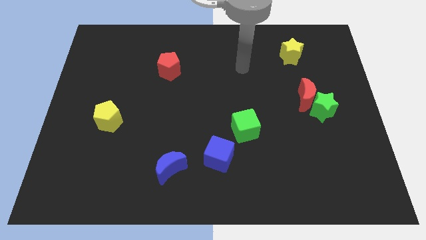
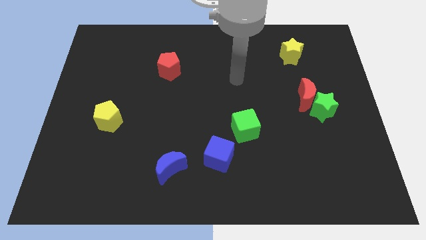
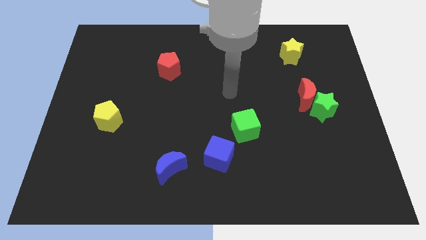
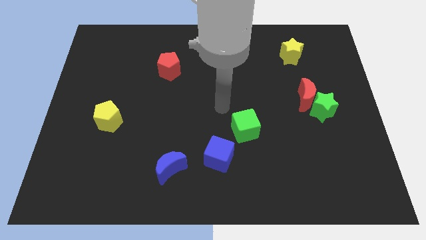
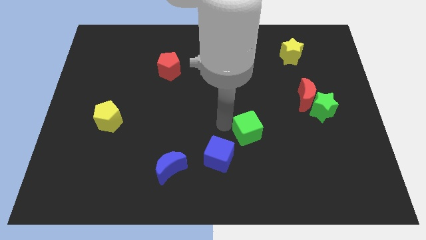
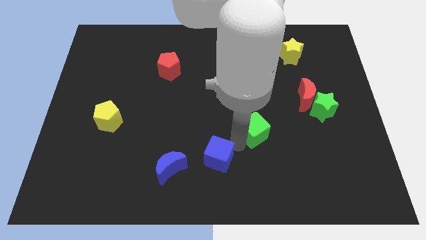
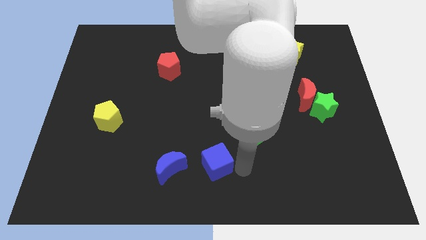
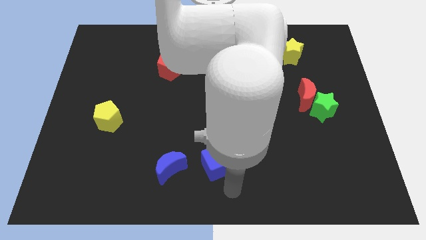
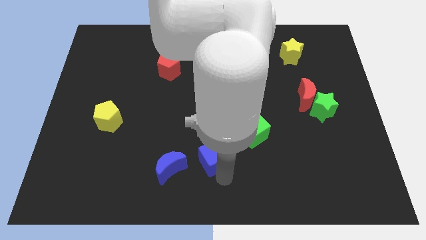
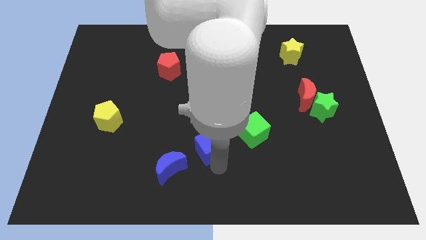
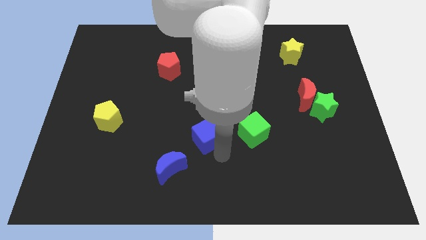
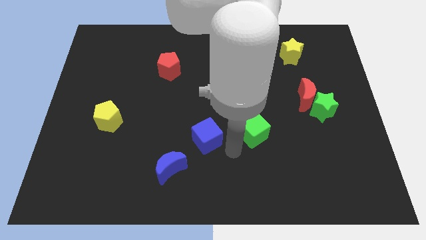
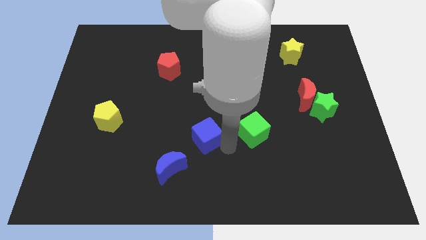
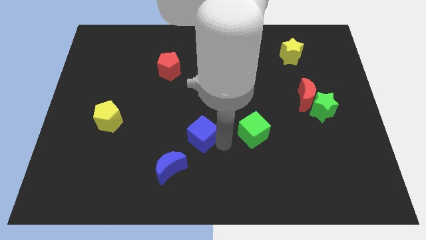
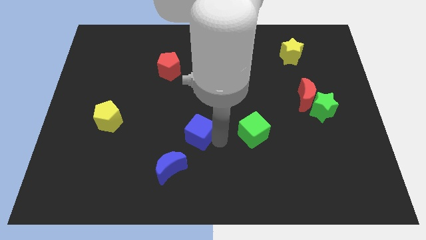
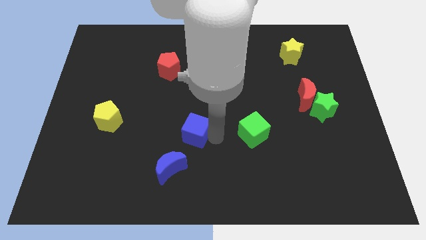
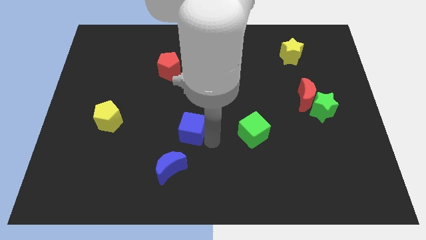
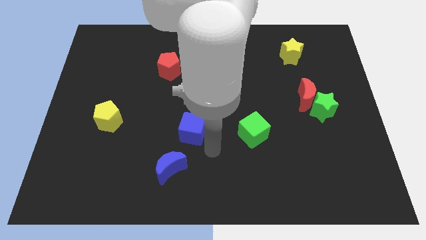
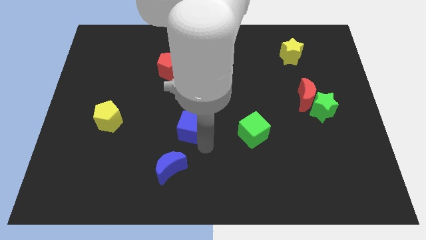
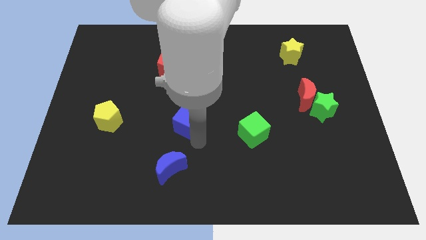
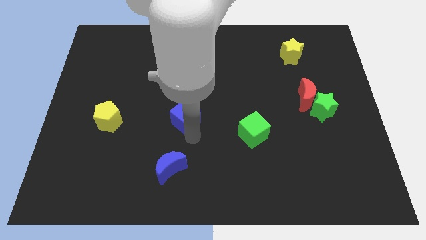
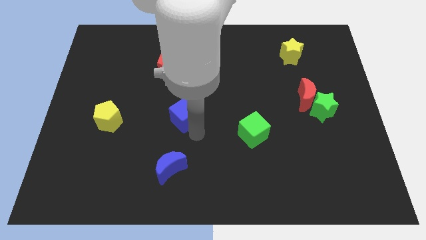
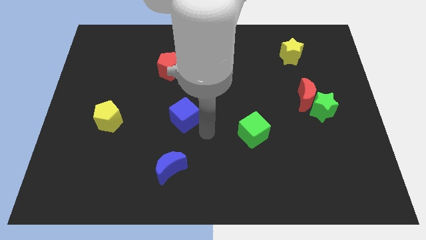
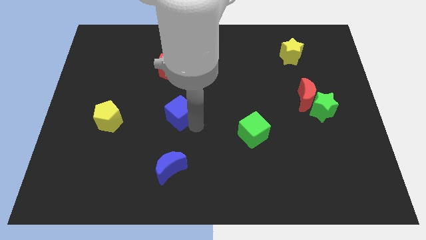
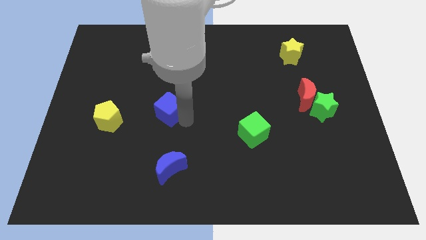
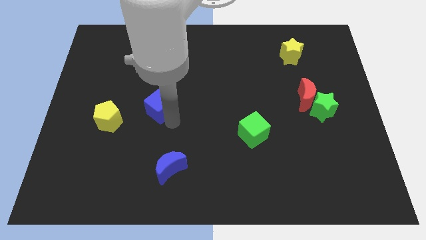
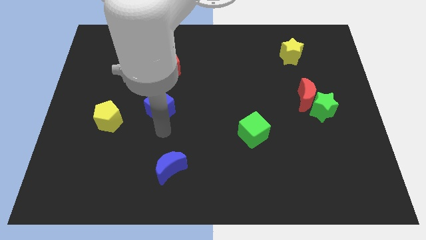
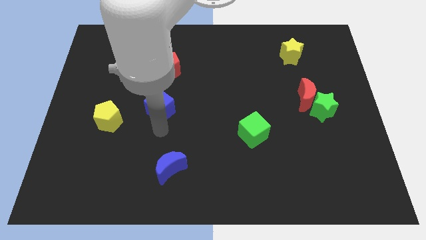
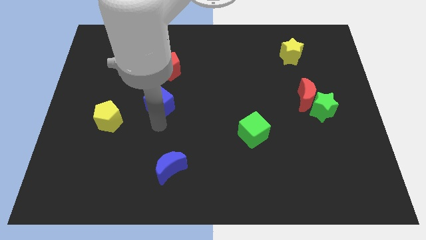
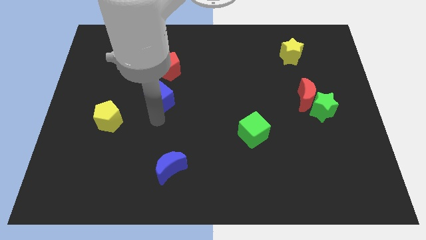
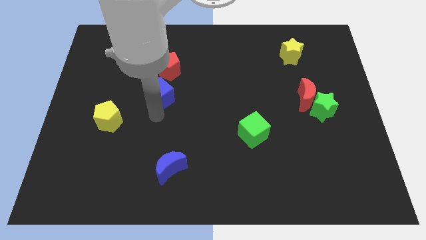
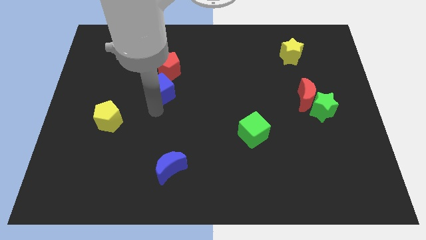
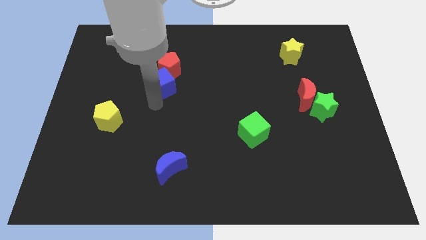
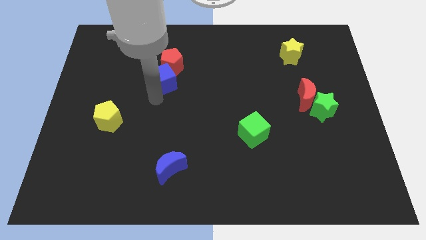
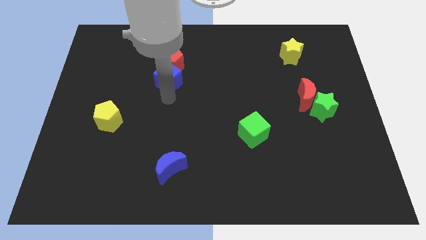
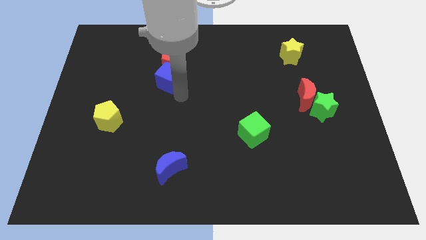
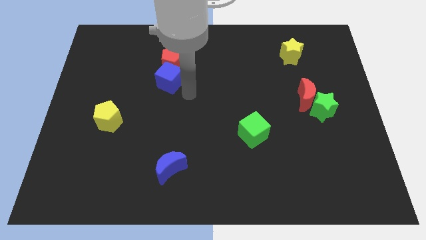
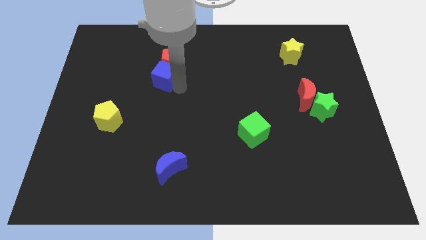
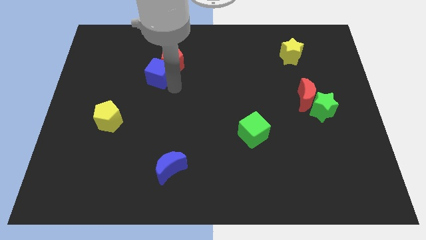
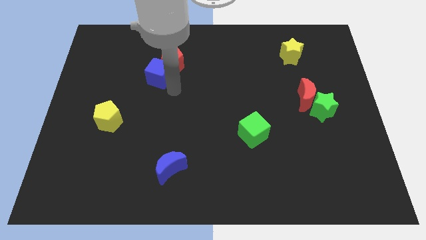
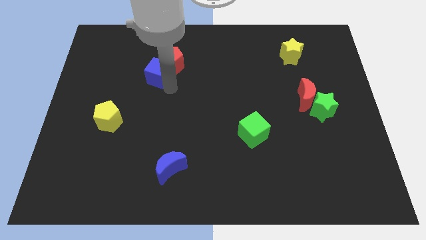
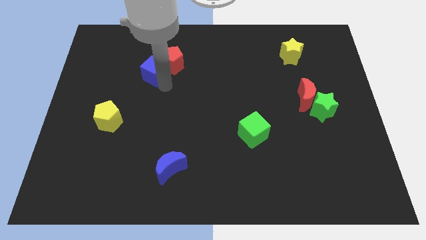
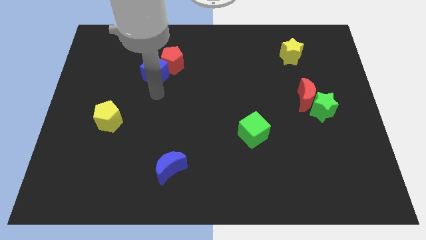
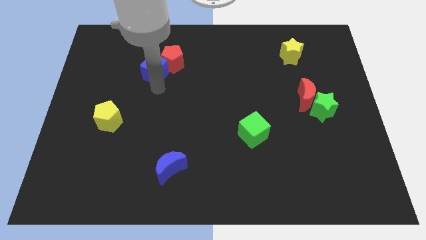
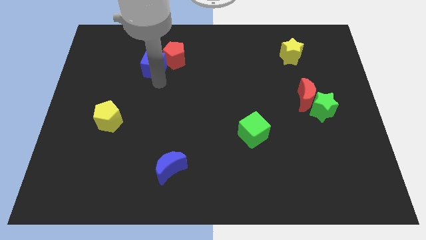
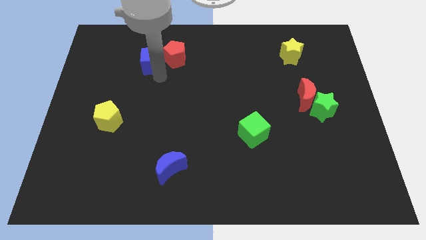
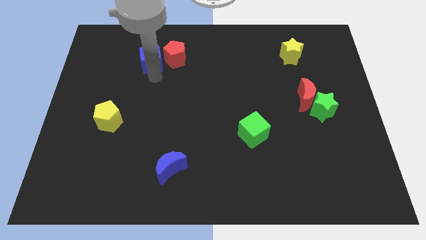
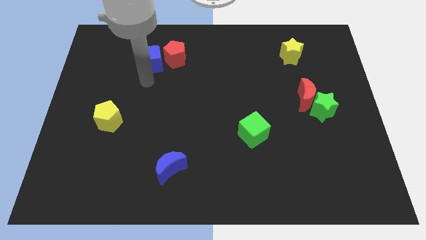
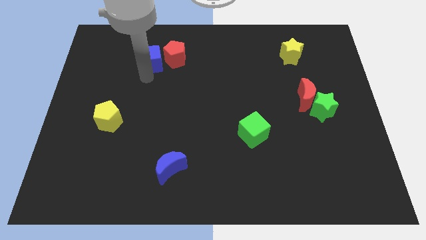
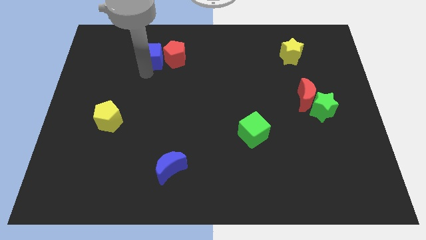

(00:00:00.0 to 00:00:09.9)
push the blue cube diagonally up and to the left of the red pentagon

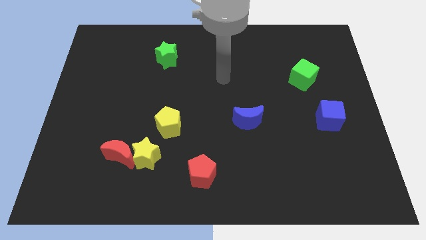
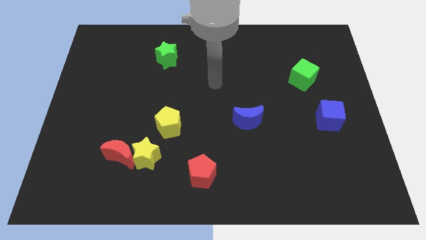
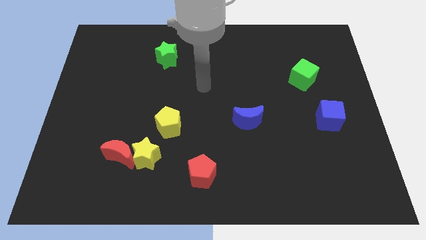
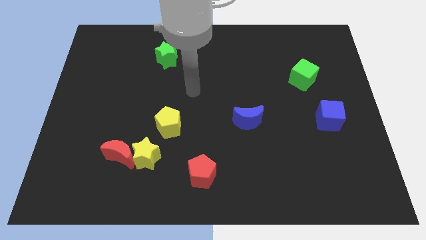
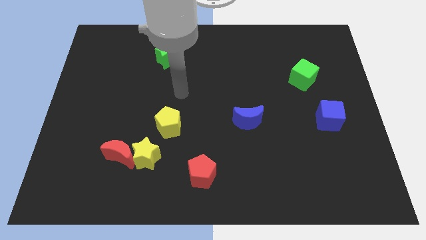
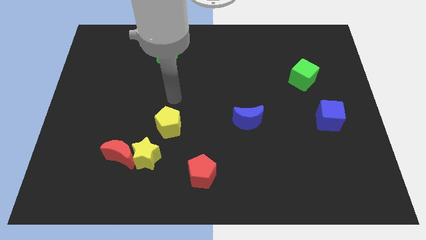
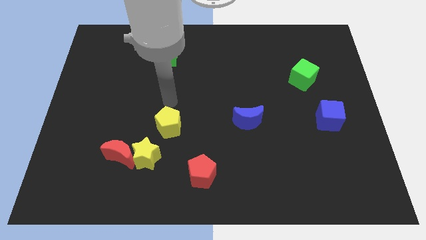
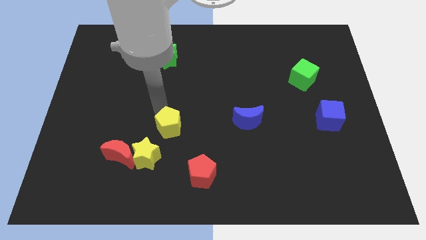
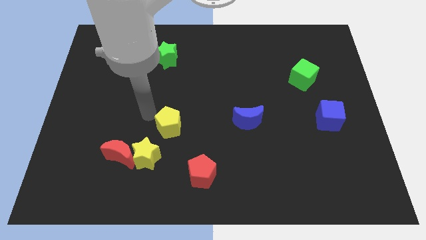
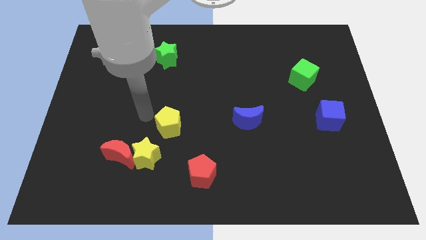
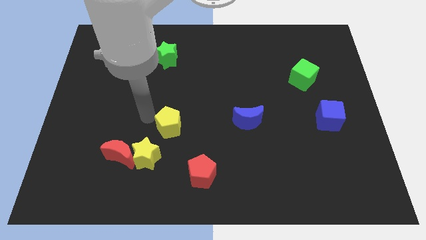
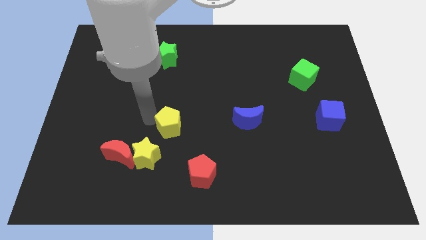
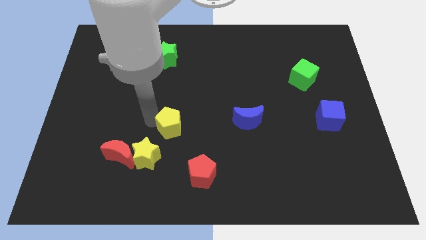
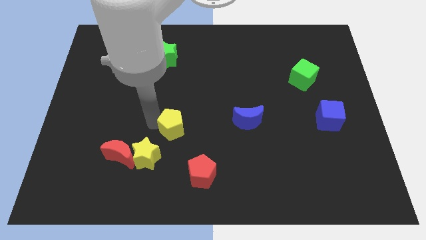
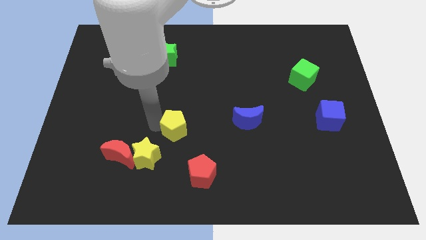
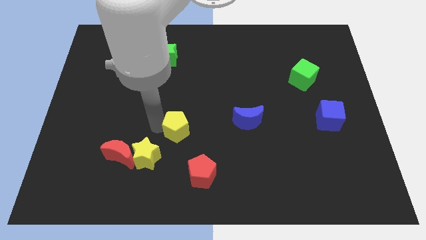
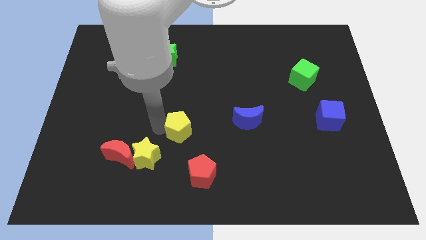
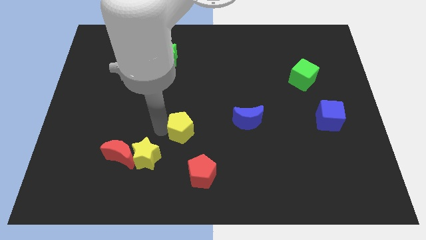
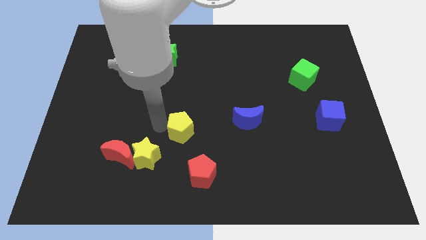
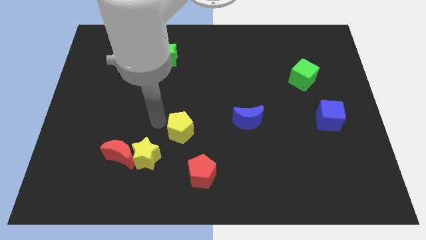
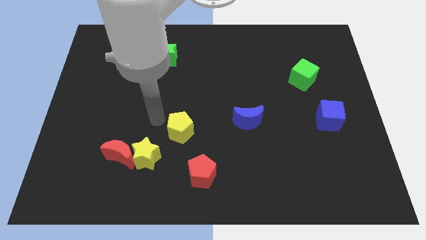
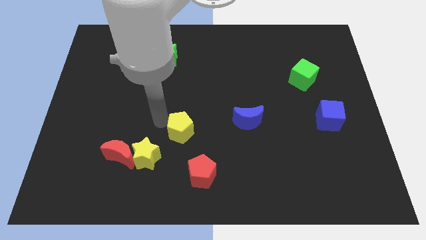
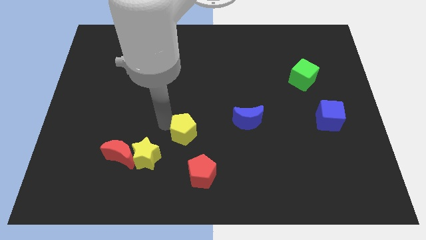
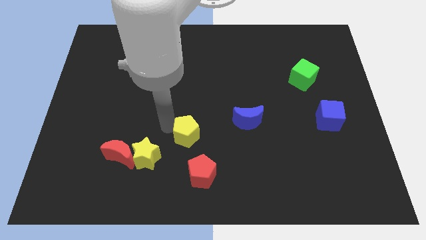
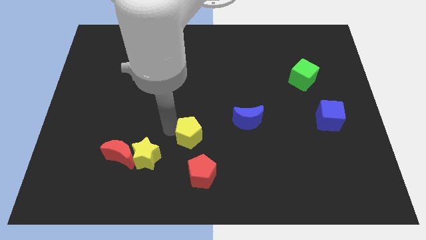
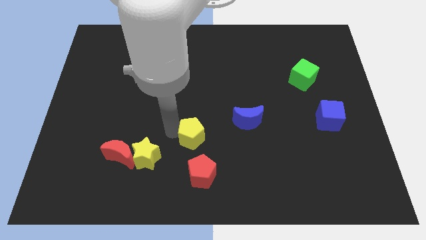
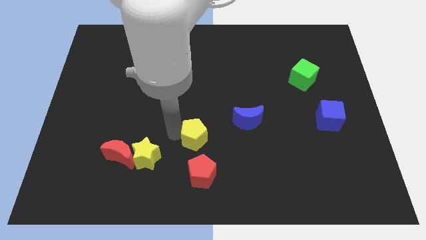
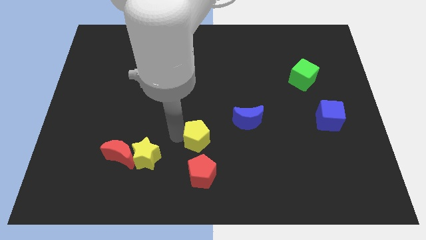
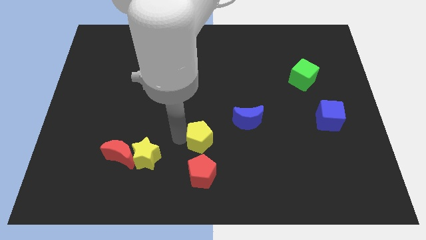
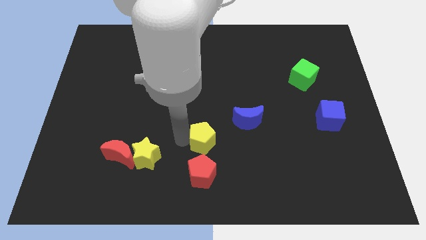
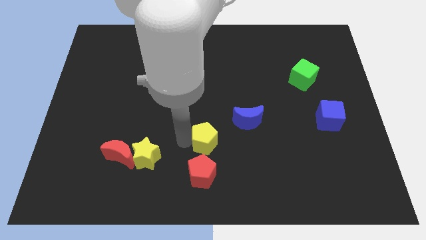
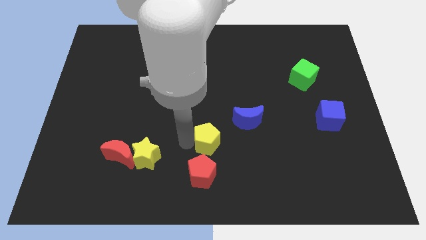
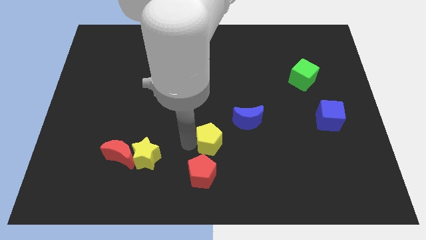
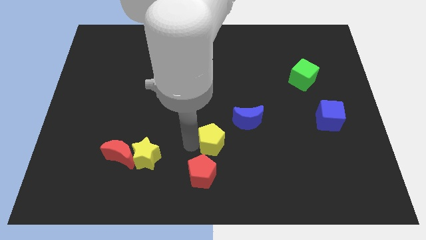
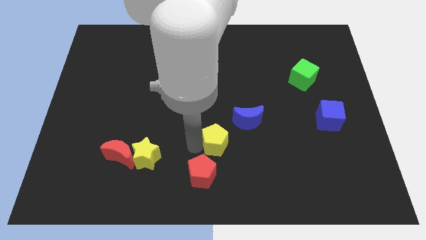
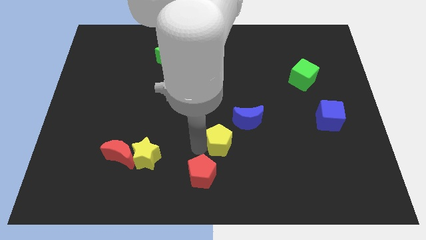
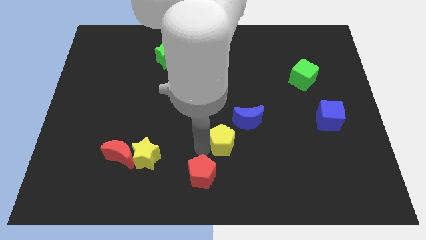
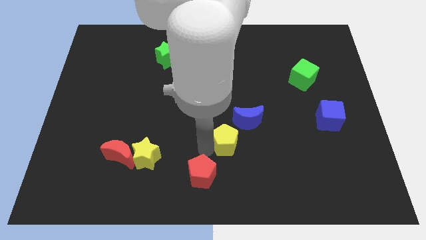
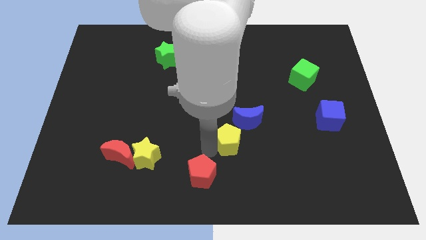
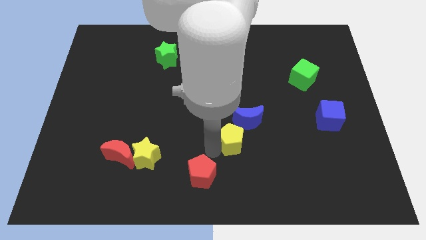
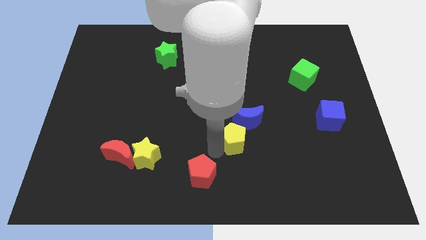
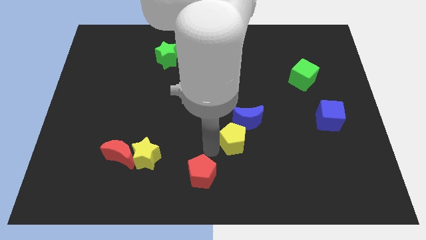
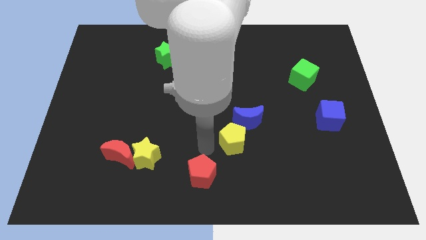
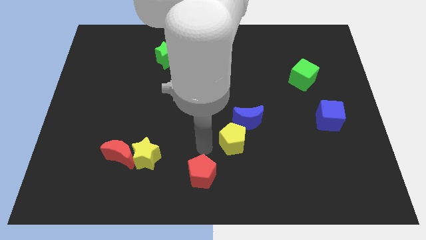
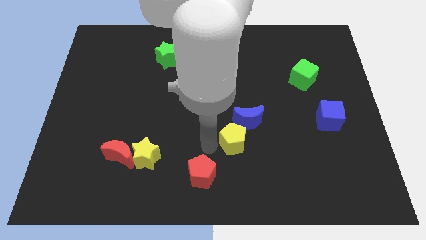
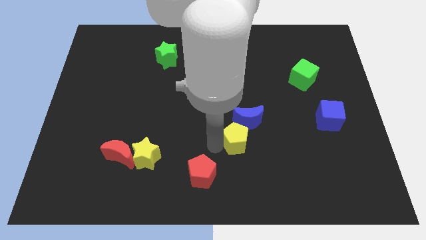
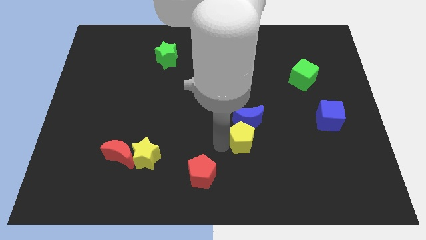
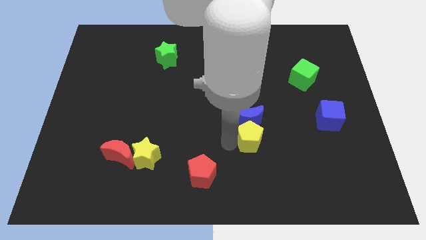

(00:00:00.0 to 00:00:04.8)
slide the yellow pentagon to the bottom right side of the blue moon
